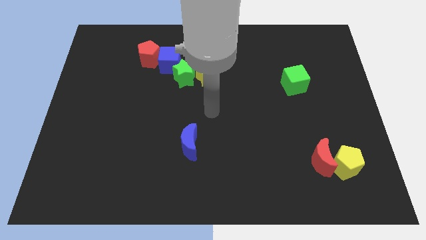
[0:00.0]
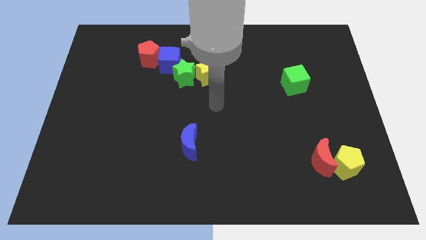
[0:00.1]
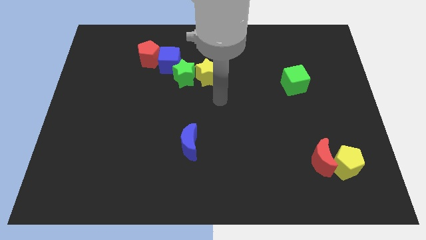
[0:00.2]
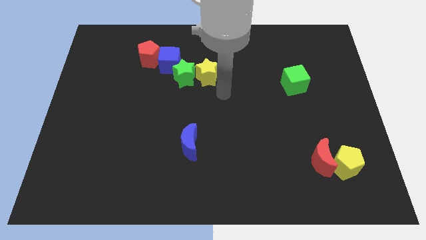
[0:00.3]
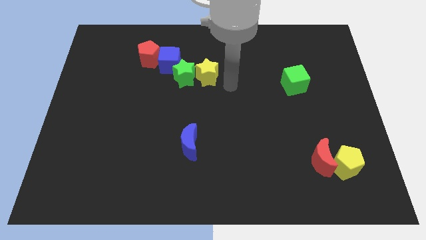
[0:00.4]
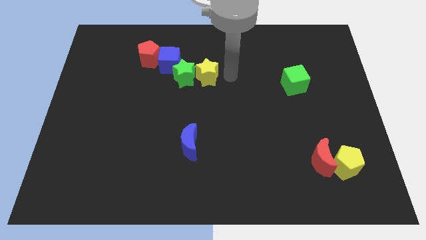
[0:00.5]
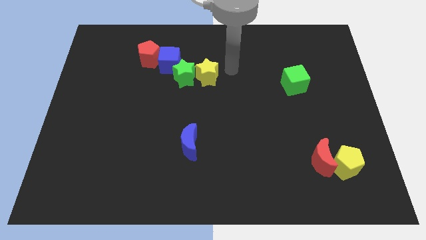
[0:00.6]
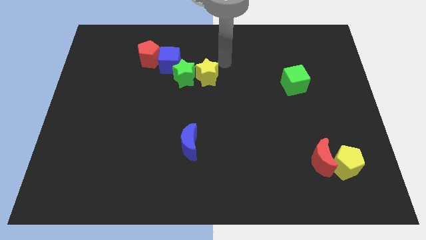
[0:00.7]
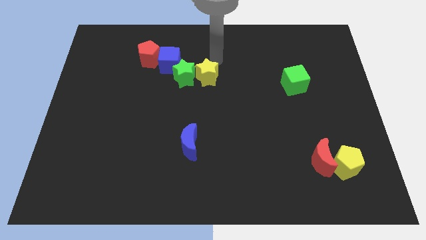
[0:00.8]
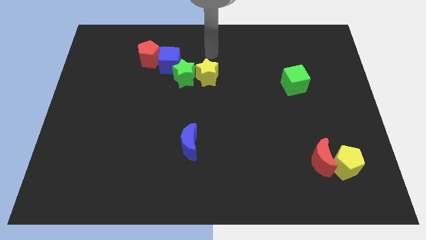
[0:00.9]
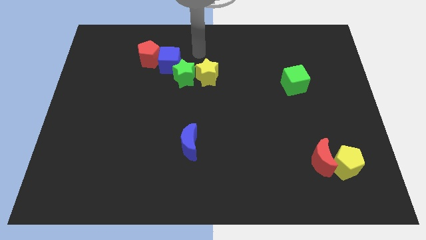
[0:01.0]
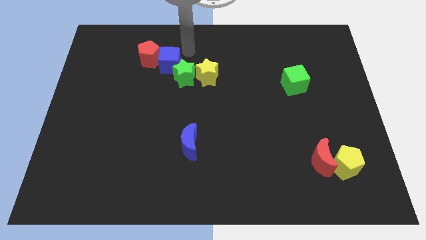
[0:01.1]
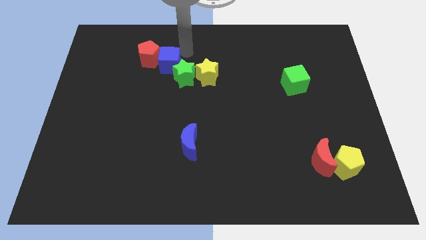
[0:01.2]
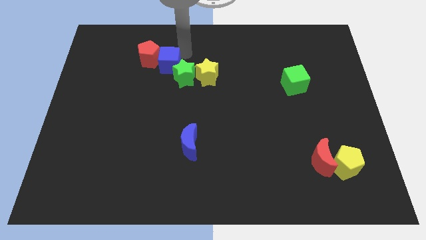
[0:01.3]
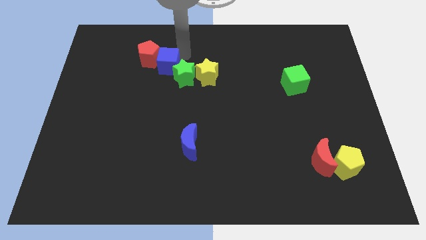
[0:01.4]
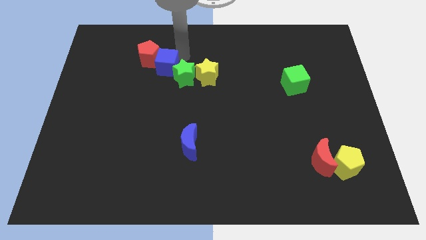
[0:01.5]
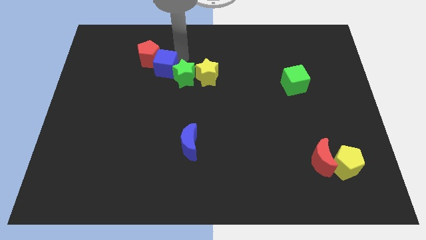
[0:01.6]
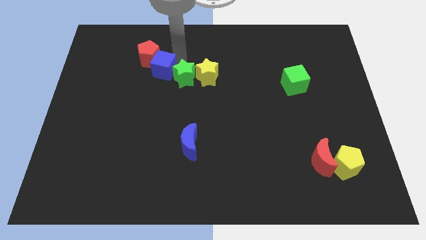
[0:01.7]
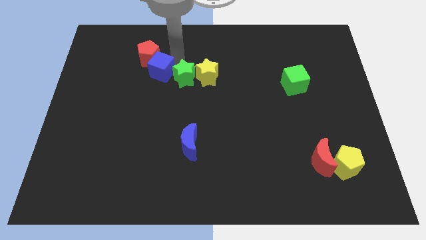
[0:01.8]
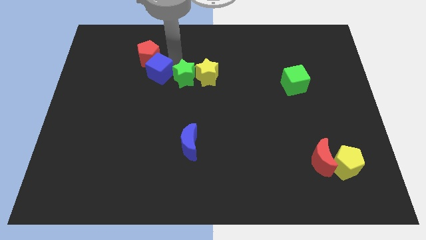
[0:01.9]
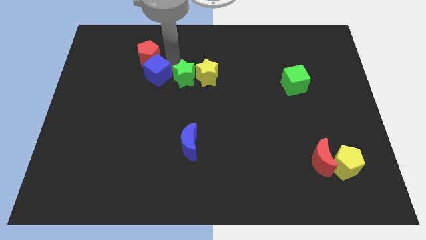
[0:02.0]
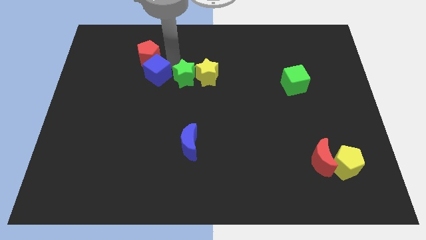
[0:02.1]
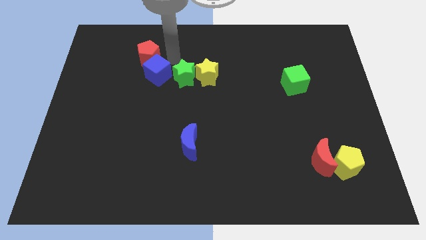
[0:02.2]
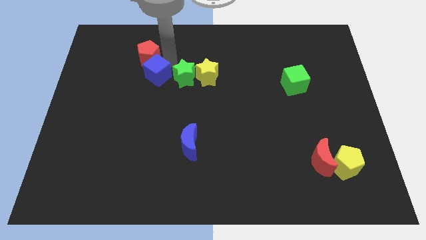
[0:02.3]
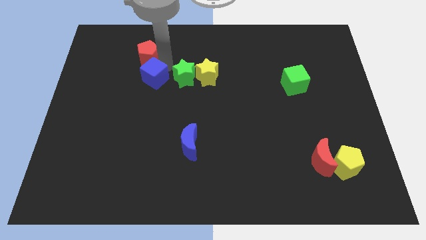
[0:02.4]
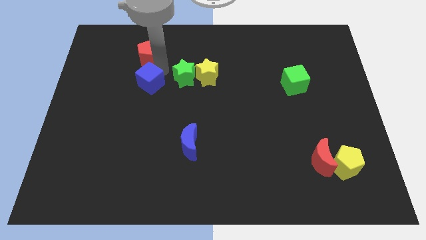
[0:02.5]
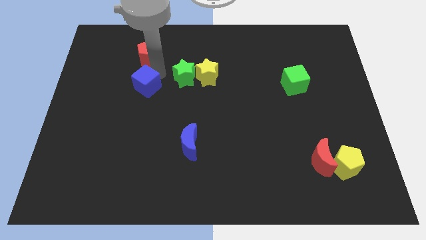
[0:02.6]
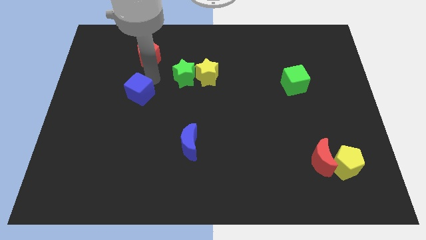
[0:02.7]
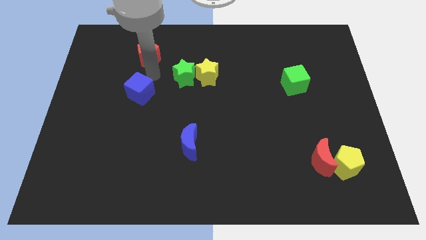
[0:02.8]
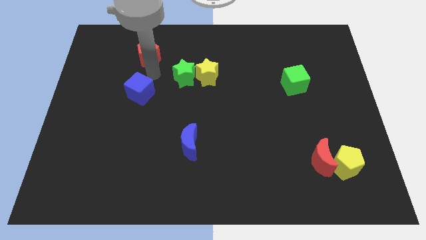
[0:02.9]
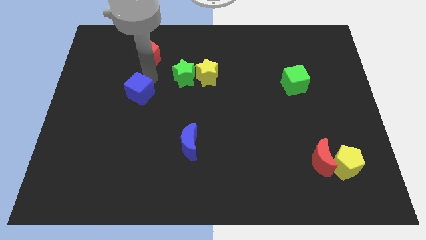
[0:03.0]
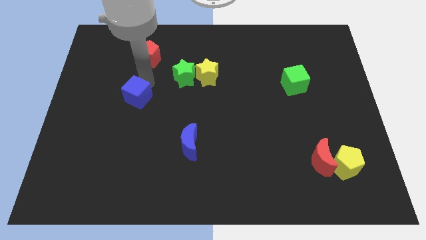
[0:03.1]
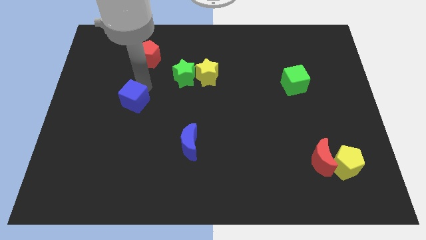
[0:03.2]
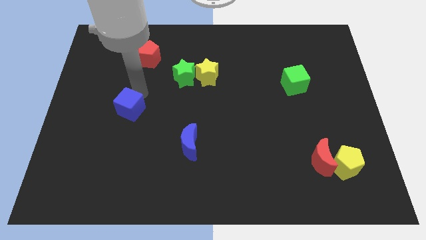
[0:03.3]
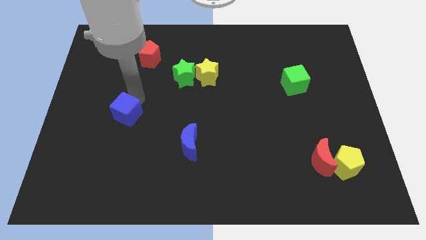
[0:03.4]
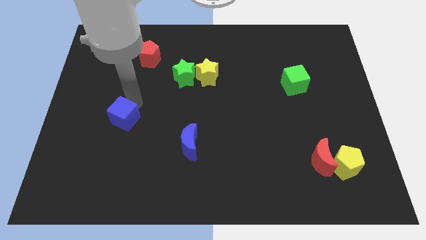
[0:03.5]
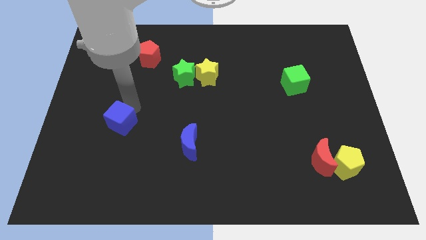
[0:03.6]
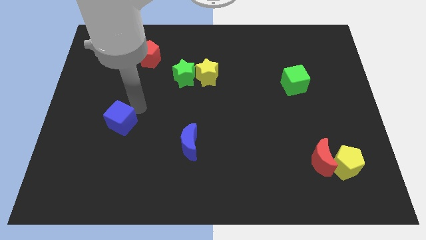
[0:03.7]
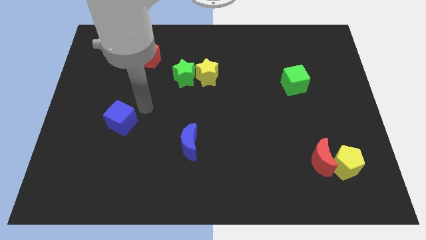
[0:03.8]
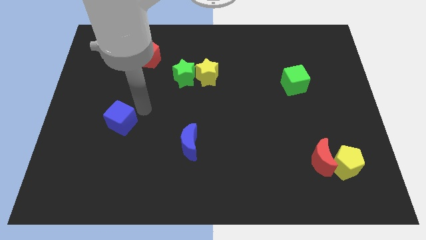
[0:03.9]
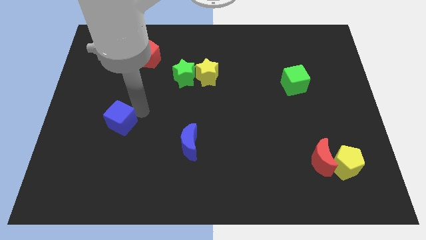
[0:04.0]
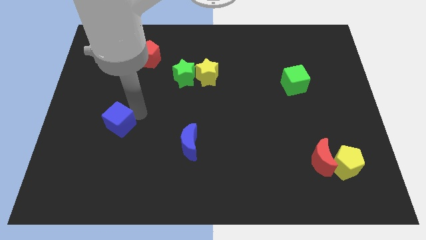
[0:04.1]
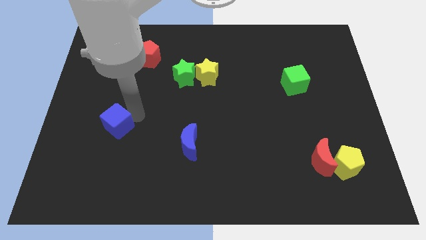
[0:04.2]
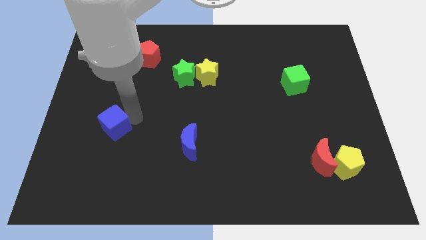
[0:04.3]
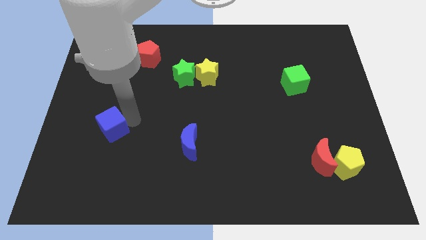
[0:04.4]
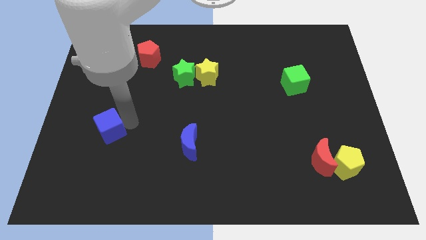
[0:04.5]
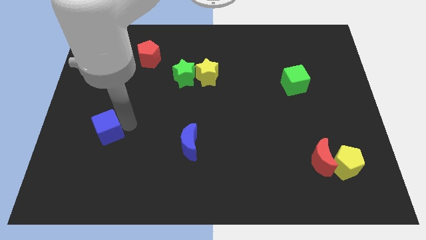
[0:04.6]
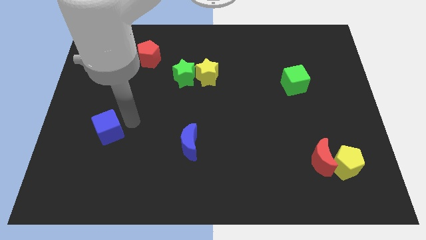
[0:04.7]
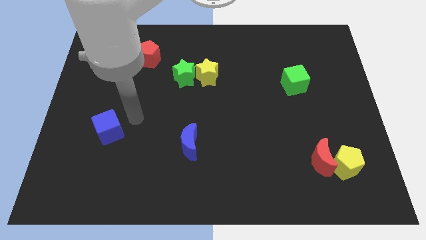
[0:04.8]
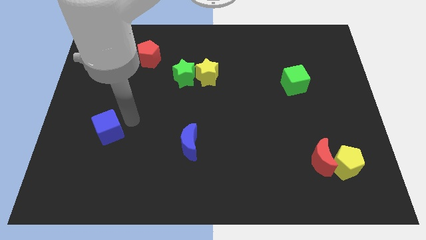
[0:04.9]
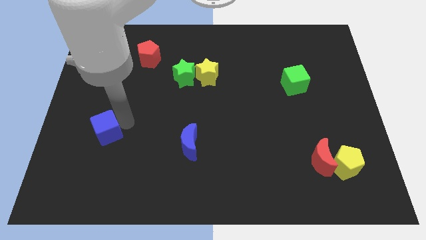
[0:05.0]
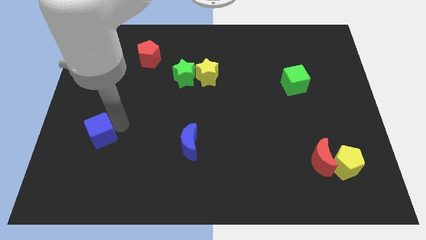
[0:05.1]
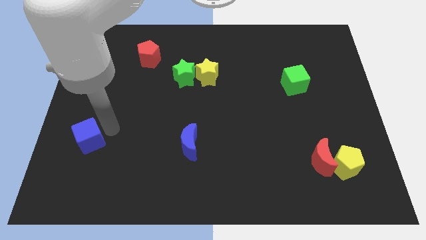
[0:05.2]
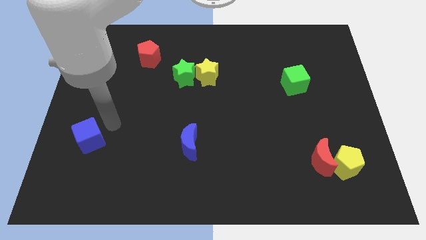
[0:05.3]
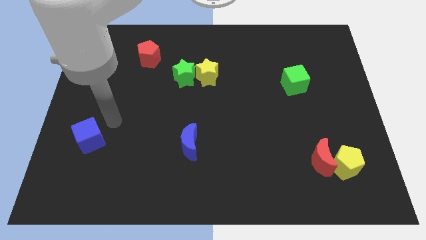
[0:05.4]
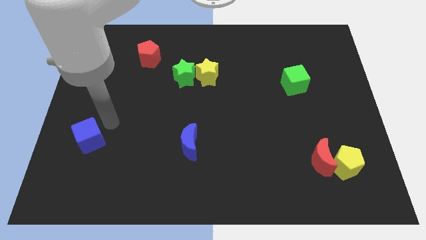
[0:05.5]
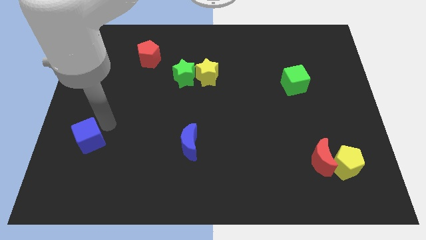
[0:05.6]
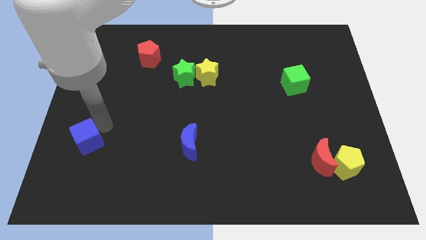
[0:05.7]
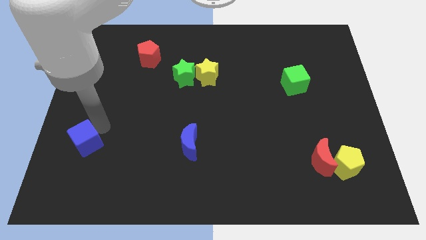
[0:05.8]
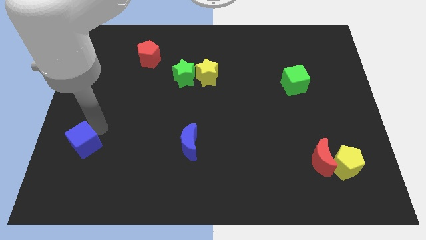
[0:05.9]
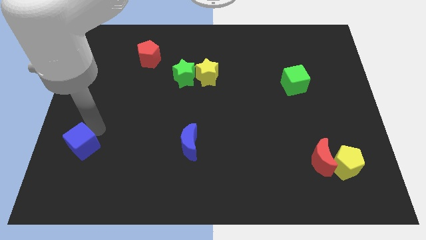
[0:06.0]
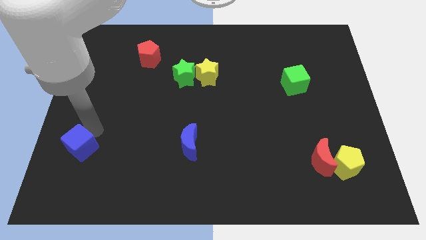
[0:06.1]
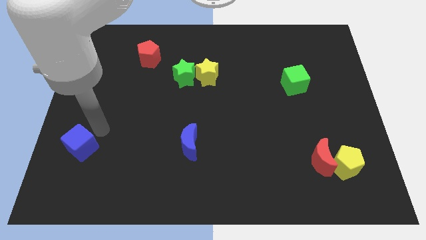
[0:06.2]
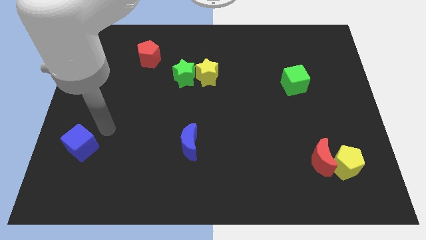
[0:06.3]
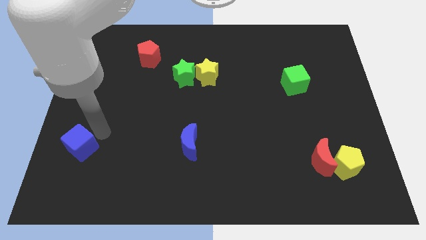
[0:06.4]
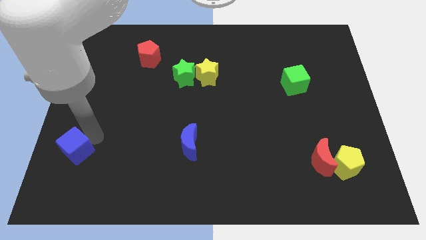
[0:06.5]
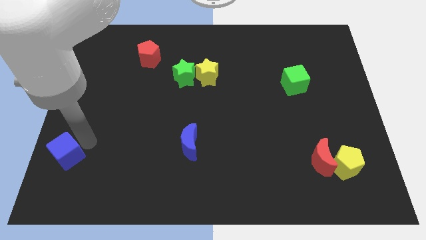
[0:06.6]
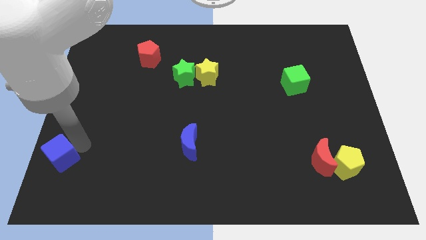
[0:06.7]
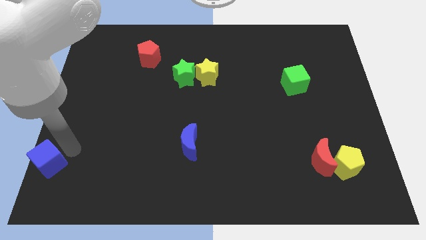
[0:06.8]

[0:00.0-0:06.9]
push the blue cube to the lower left corner
